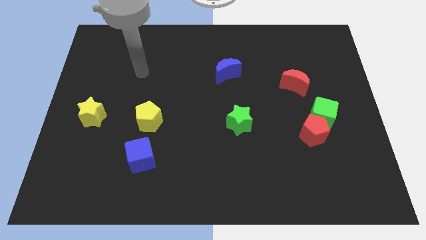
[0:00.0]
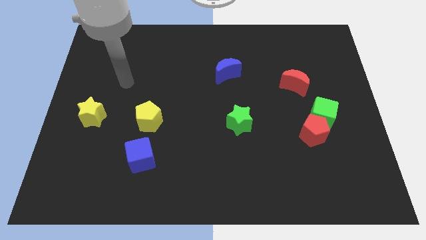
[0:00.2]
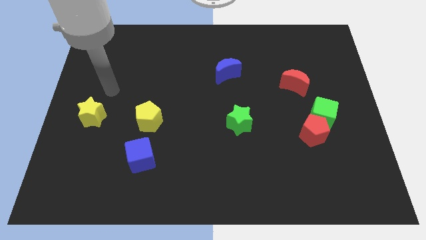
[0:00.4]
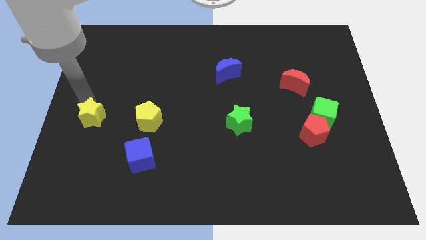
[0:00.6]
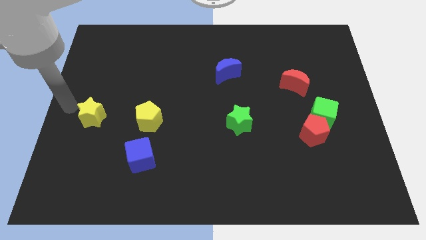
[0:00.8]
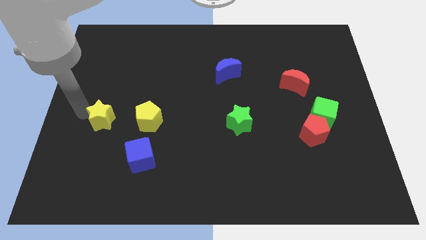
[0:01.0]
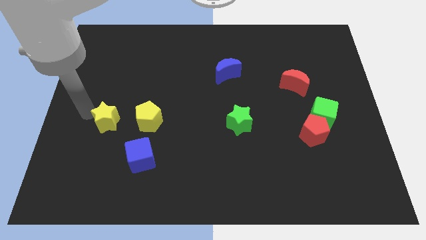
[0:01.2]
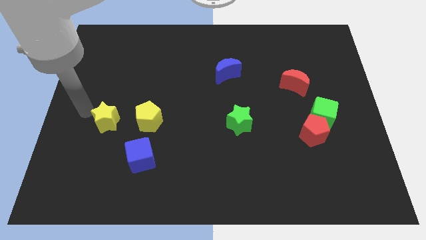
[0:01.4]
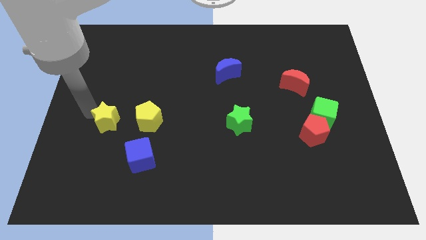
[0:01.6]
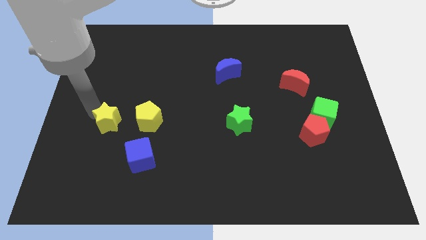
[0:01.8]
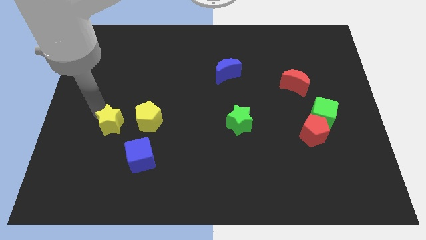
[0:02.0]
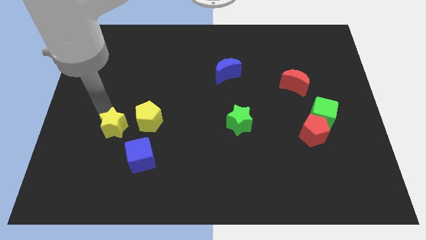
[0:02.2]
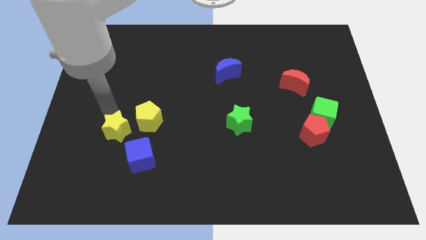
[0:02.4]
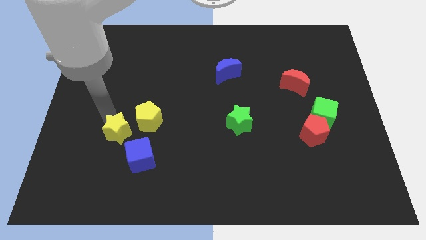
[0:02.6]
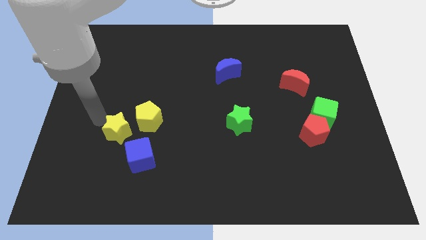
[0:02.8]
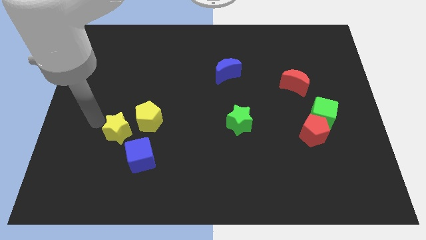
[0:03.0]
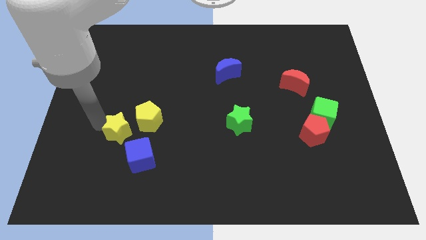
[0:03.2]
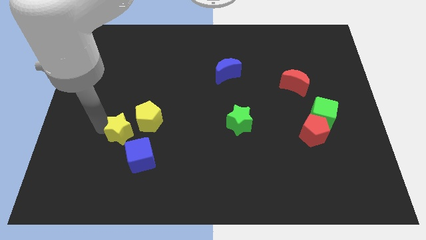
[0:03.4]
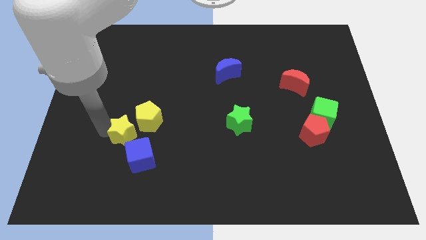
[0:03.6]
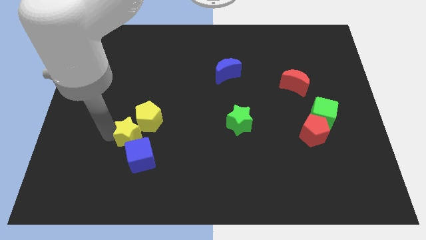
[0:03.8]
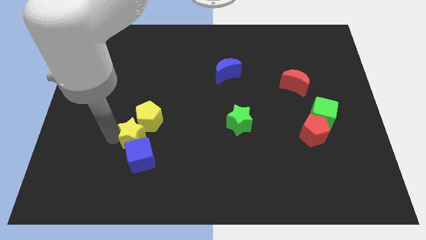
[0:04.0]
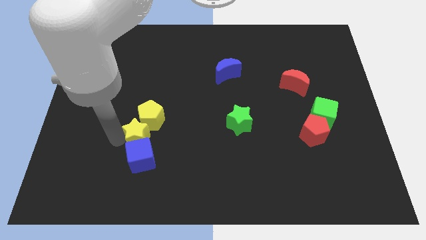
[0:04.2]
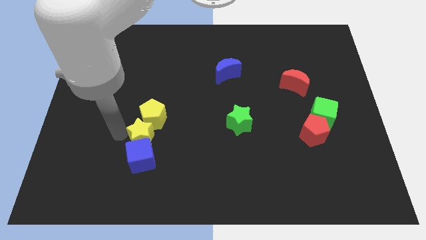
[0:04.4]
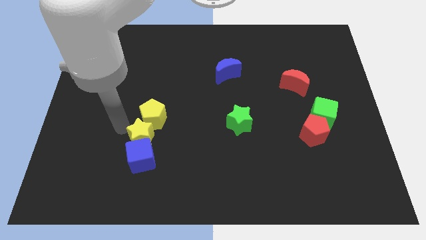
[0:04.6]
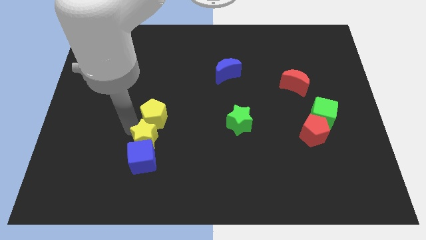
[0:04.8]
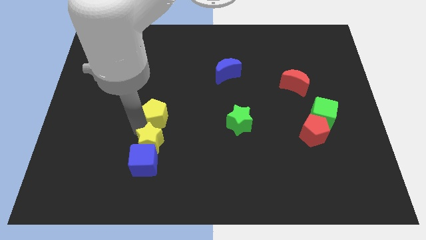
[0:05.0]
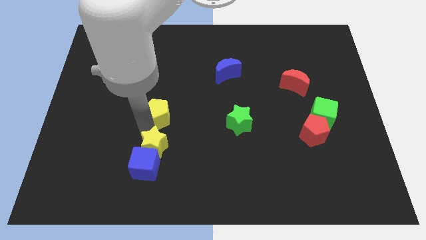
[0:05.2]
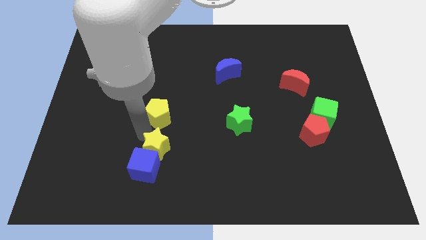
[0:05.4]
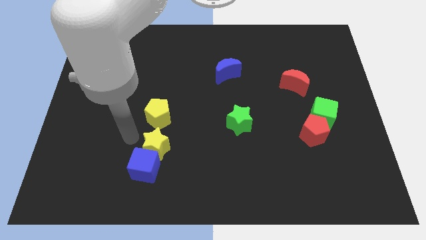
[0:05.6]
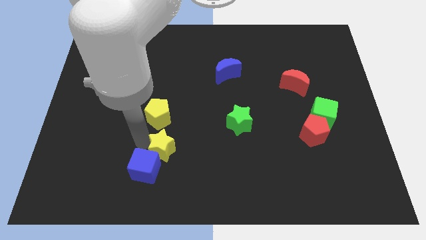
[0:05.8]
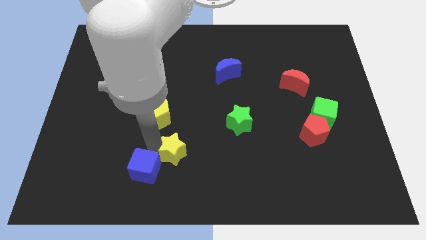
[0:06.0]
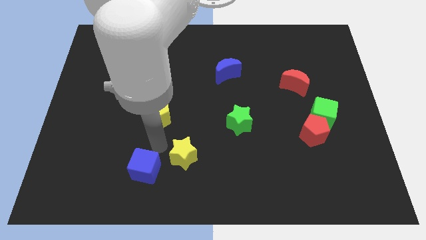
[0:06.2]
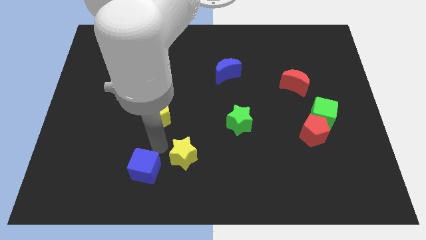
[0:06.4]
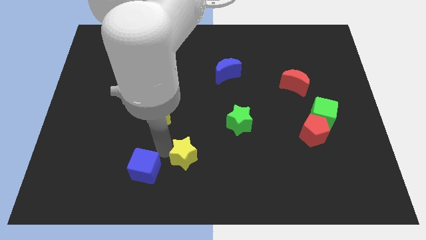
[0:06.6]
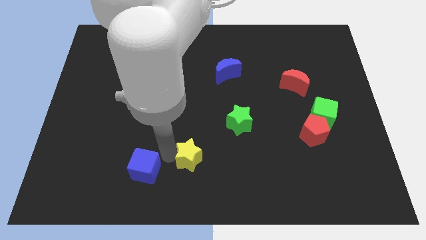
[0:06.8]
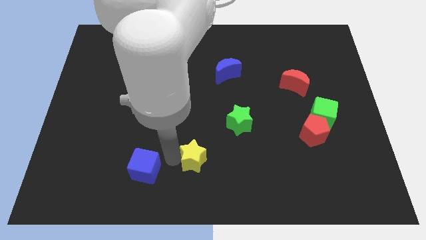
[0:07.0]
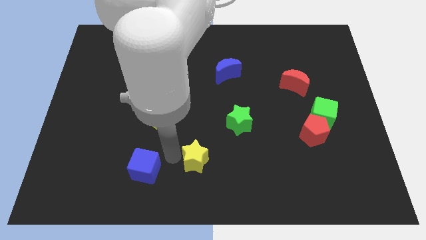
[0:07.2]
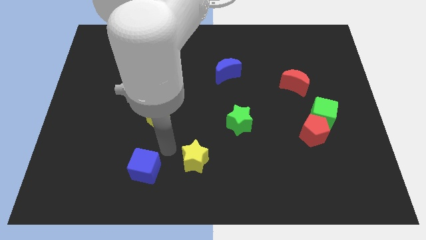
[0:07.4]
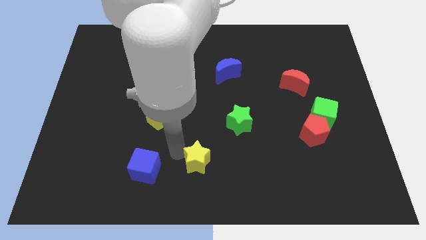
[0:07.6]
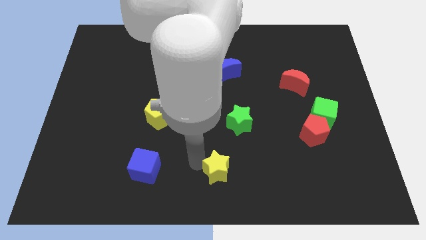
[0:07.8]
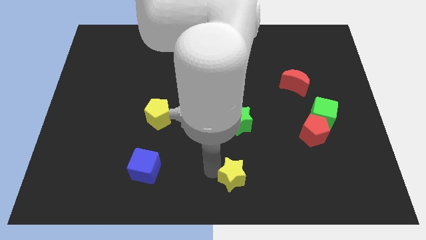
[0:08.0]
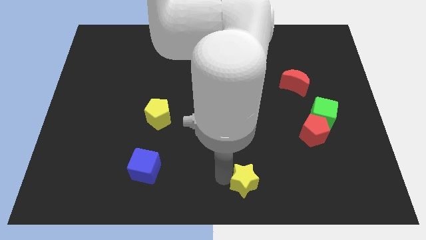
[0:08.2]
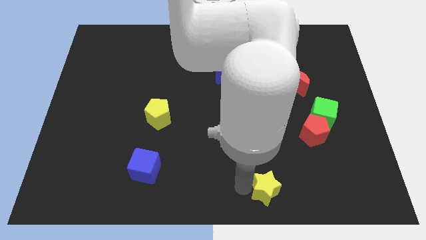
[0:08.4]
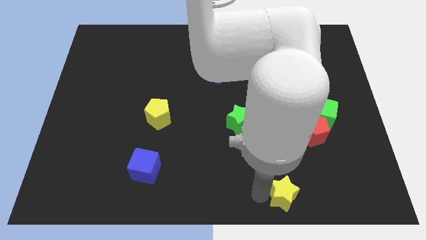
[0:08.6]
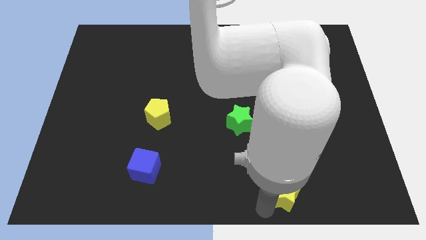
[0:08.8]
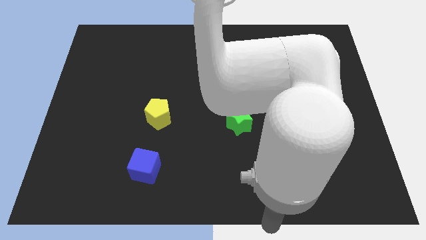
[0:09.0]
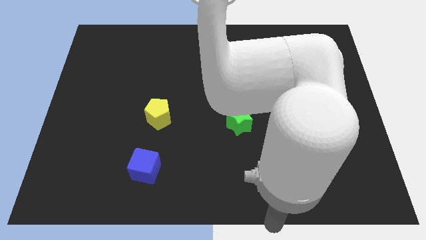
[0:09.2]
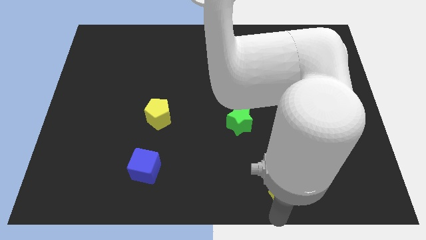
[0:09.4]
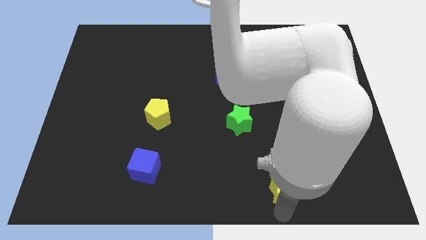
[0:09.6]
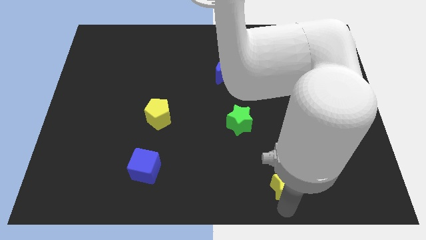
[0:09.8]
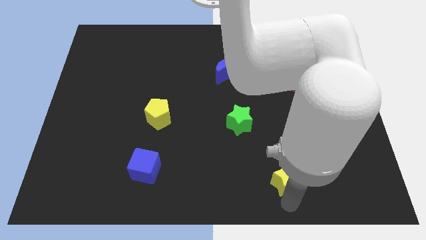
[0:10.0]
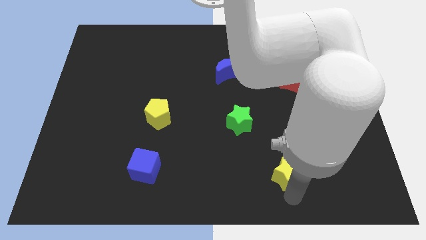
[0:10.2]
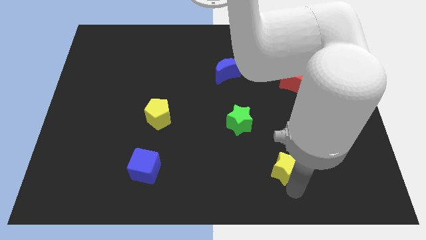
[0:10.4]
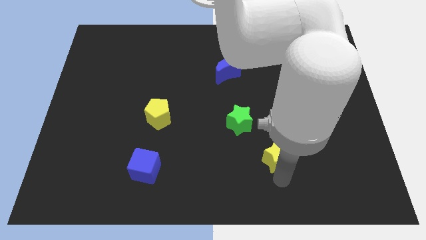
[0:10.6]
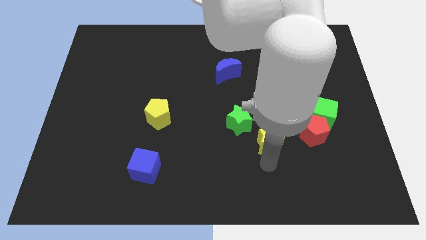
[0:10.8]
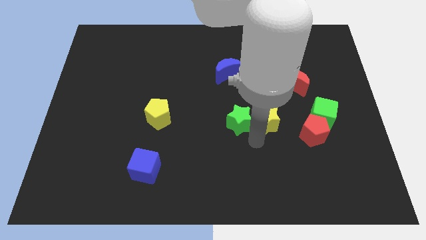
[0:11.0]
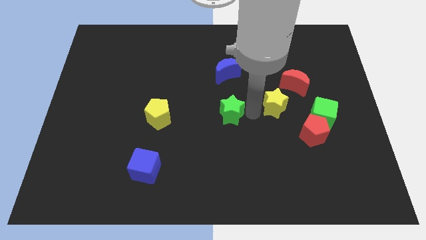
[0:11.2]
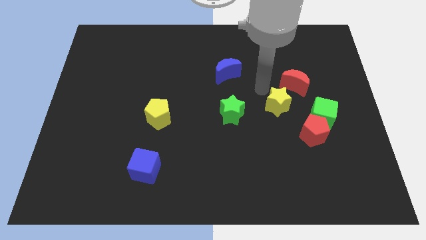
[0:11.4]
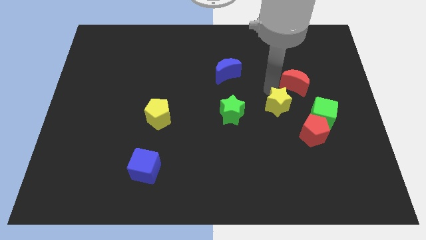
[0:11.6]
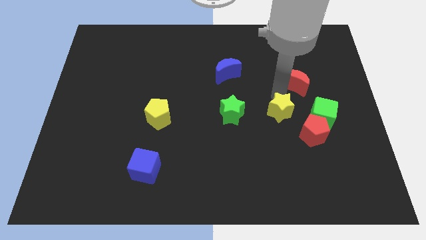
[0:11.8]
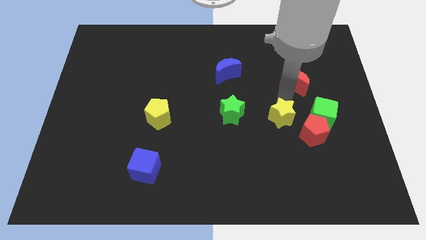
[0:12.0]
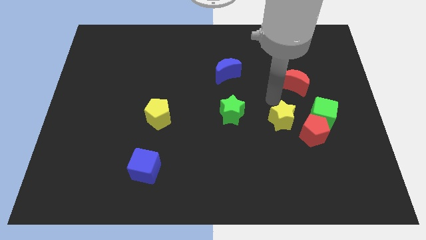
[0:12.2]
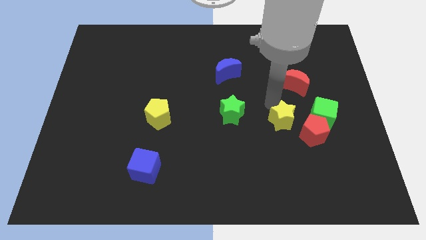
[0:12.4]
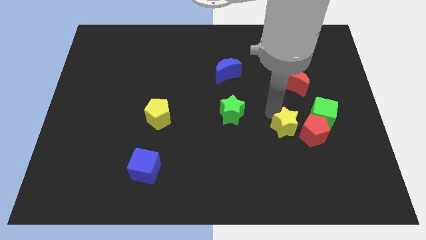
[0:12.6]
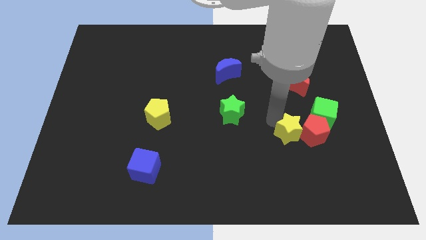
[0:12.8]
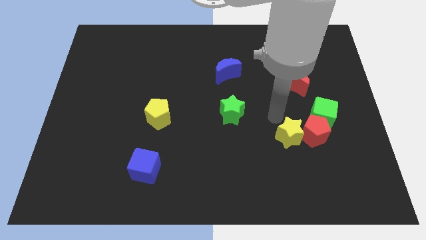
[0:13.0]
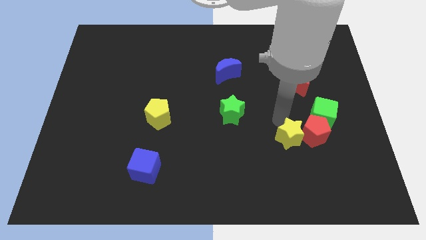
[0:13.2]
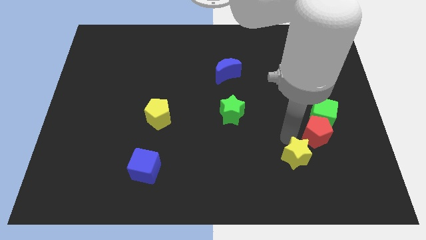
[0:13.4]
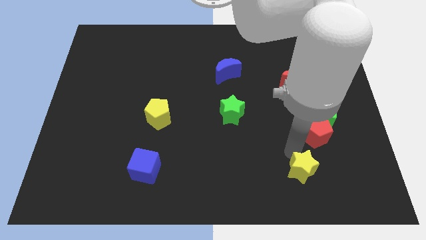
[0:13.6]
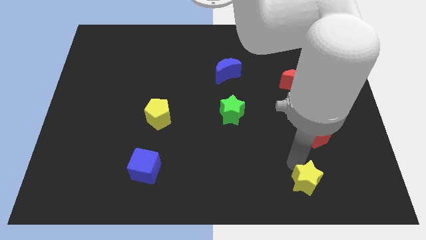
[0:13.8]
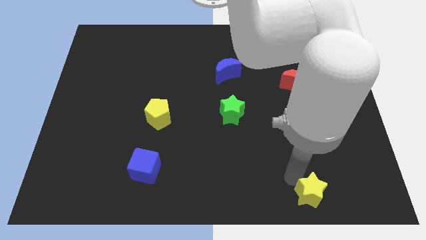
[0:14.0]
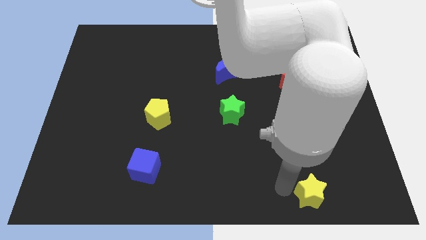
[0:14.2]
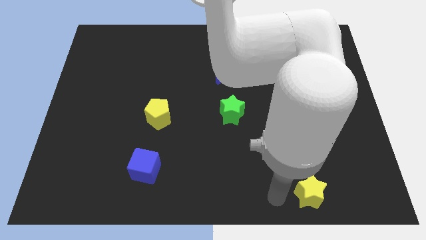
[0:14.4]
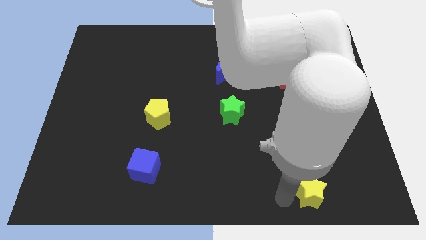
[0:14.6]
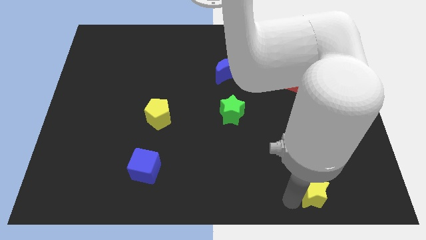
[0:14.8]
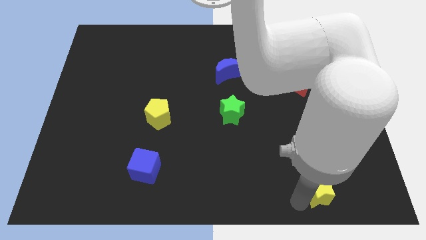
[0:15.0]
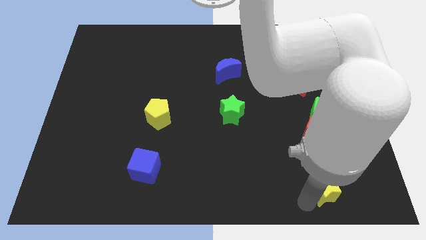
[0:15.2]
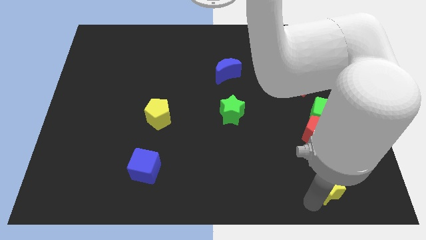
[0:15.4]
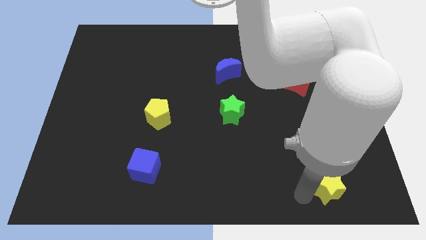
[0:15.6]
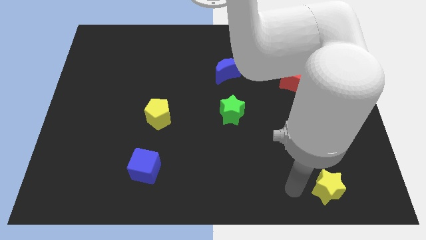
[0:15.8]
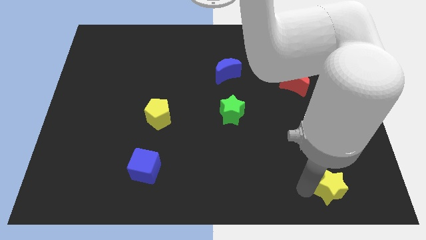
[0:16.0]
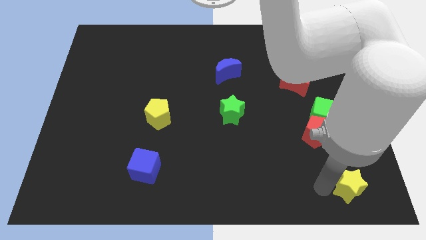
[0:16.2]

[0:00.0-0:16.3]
move the yellow star to the bottom right
